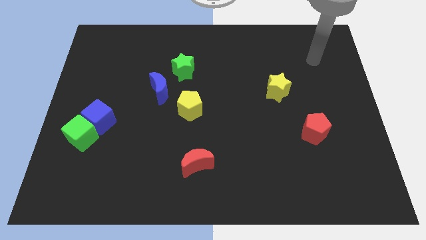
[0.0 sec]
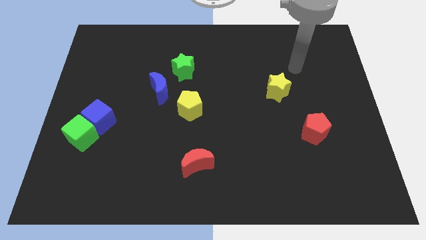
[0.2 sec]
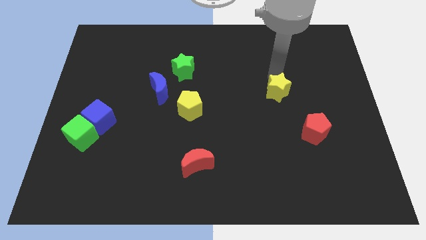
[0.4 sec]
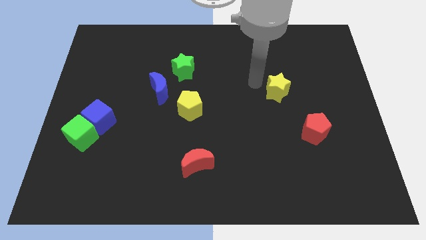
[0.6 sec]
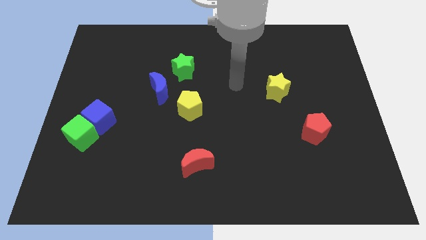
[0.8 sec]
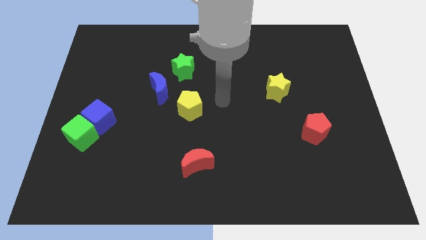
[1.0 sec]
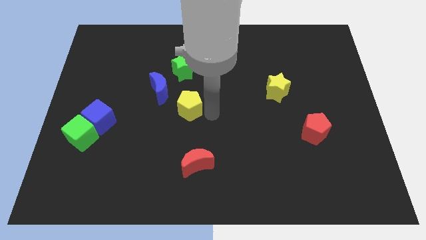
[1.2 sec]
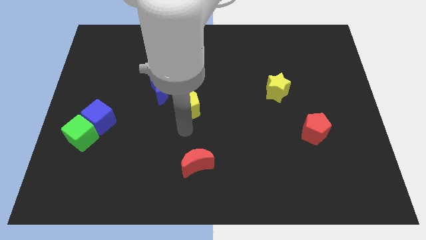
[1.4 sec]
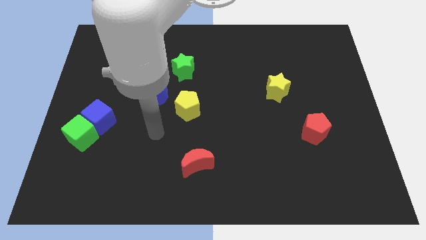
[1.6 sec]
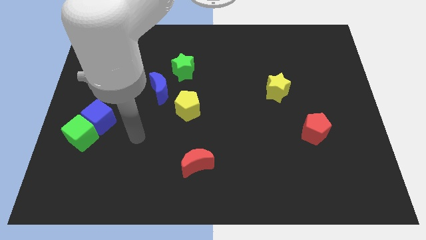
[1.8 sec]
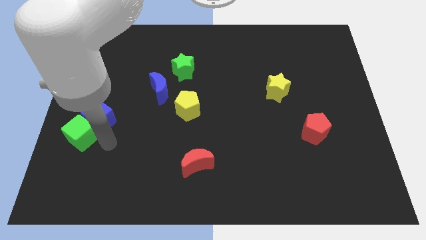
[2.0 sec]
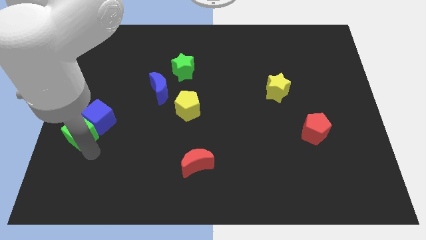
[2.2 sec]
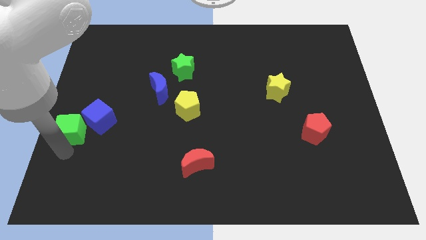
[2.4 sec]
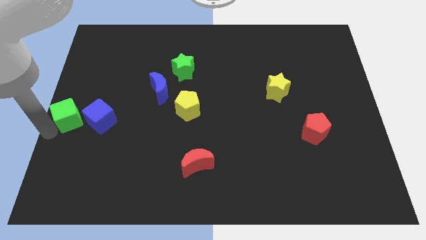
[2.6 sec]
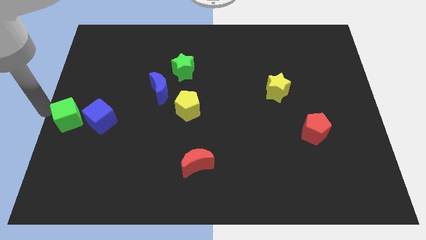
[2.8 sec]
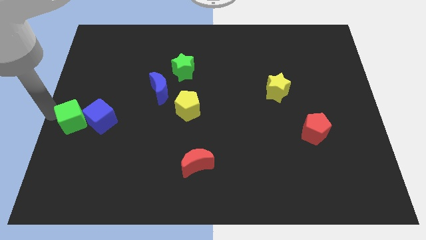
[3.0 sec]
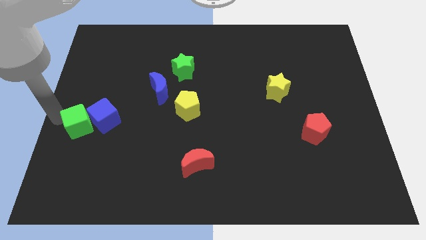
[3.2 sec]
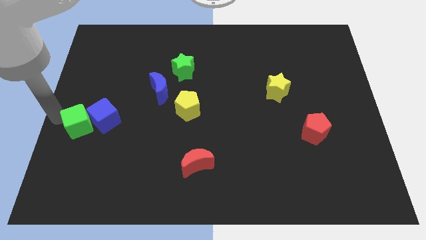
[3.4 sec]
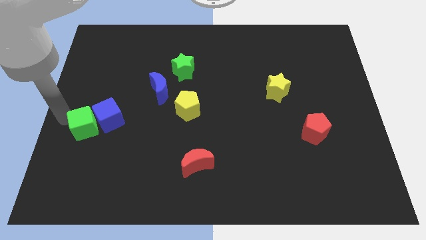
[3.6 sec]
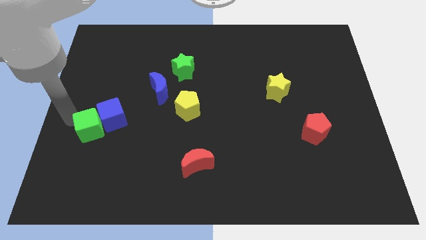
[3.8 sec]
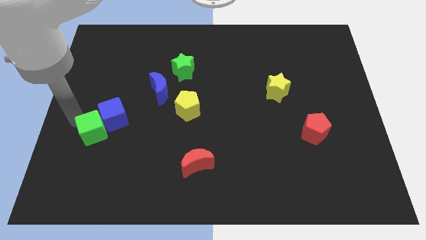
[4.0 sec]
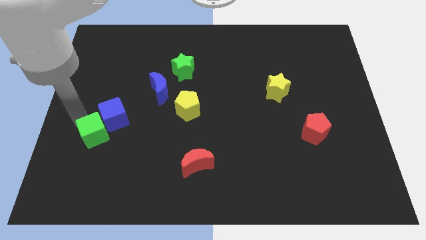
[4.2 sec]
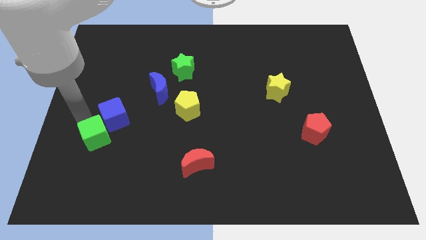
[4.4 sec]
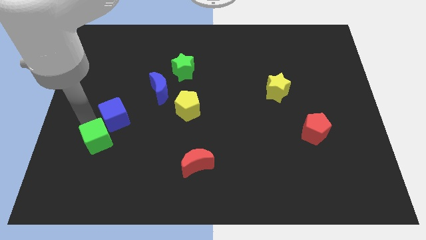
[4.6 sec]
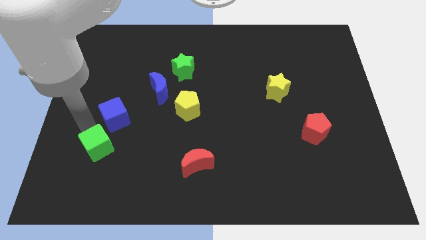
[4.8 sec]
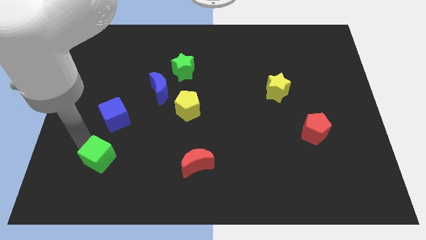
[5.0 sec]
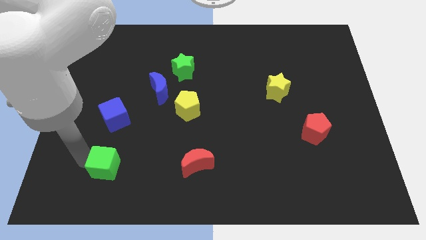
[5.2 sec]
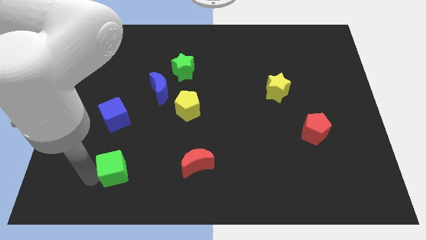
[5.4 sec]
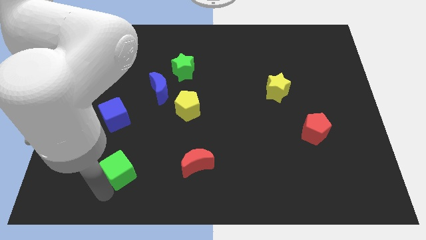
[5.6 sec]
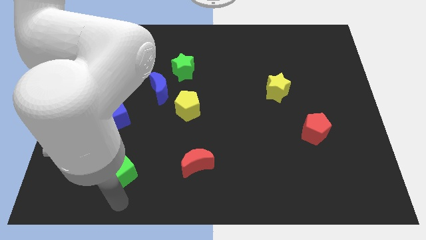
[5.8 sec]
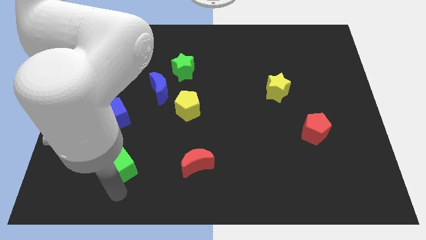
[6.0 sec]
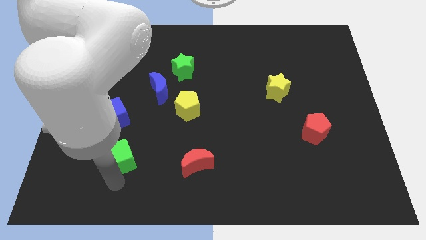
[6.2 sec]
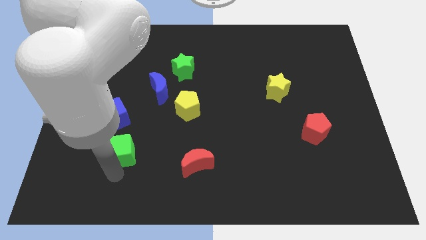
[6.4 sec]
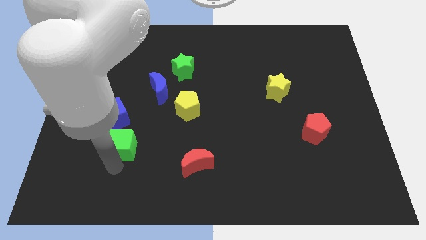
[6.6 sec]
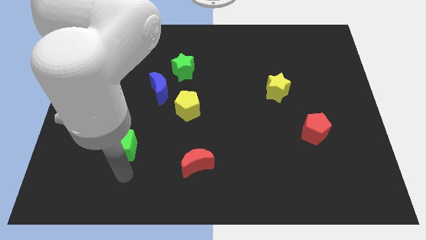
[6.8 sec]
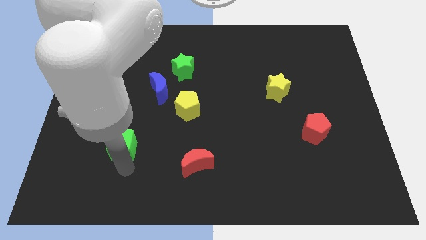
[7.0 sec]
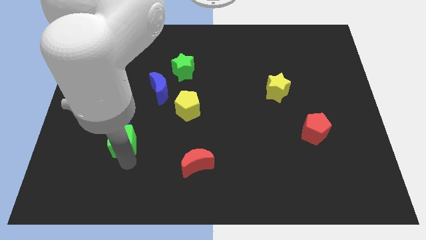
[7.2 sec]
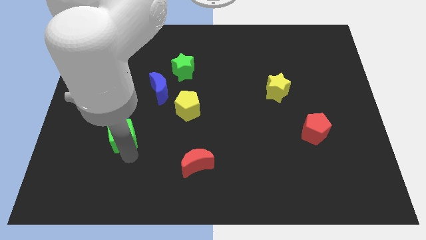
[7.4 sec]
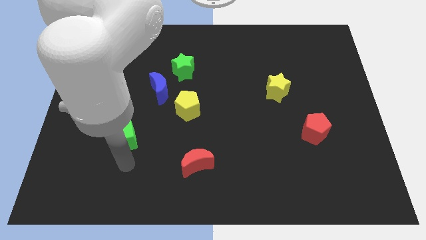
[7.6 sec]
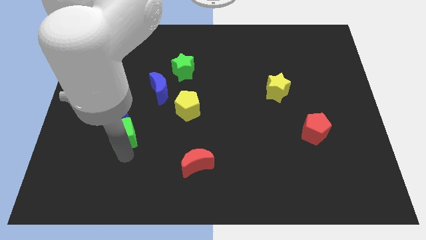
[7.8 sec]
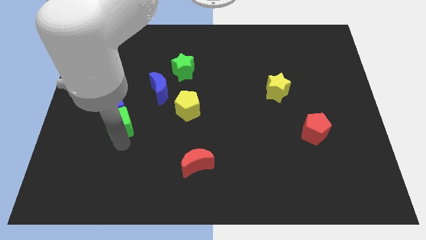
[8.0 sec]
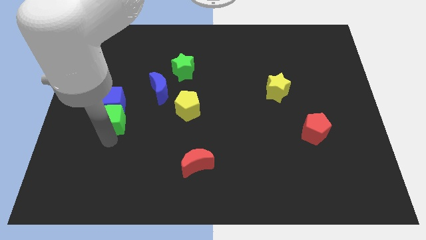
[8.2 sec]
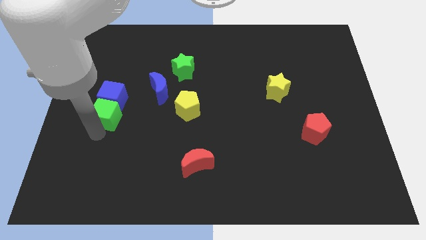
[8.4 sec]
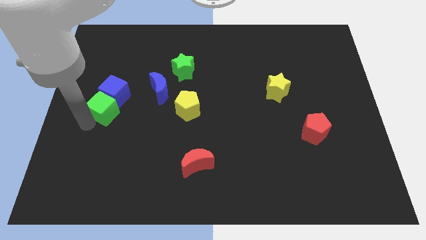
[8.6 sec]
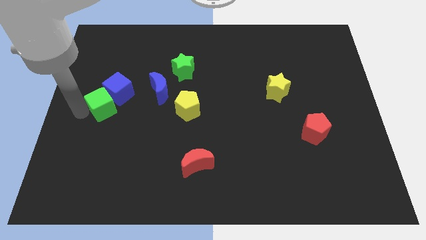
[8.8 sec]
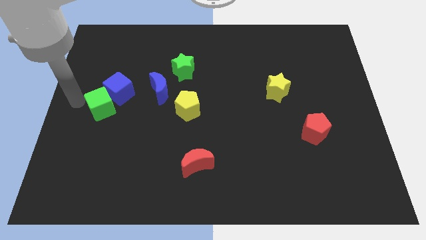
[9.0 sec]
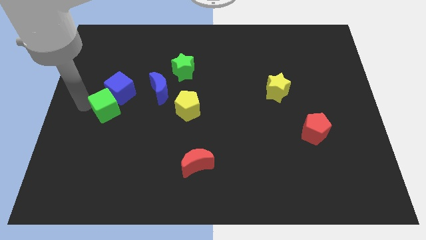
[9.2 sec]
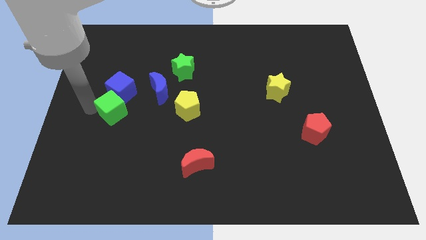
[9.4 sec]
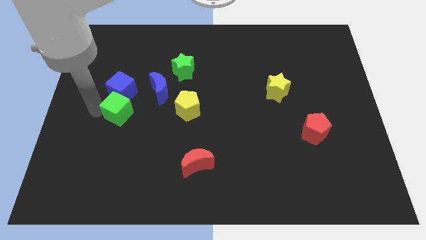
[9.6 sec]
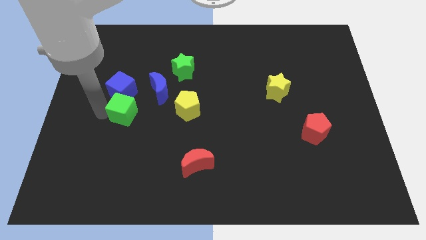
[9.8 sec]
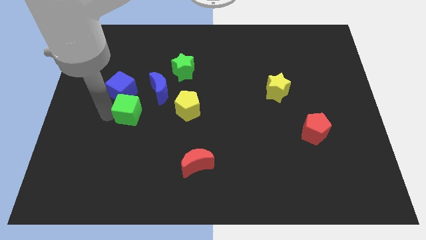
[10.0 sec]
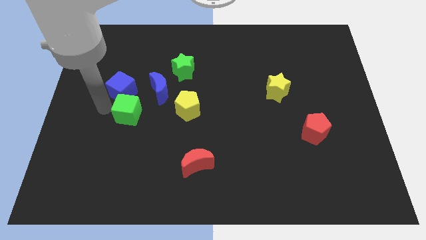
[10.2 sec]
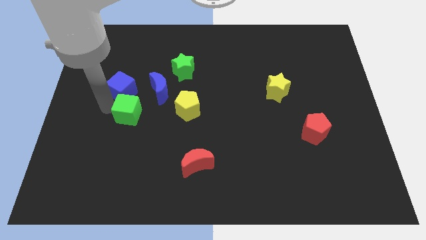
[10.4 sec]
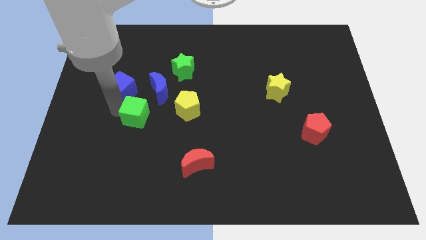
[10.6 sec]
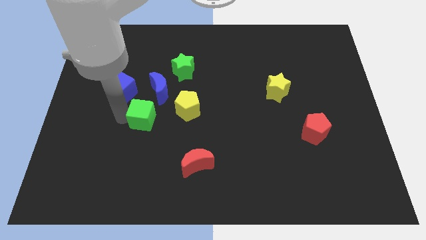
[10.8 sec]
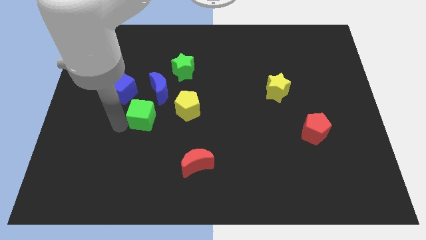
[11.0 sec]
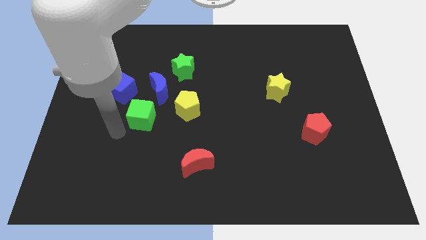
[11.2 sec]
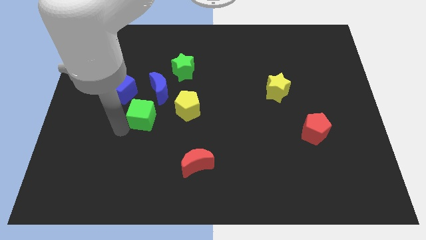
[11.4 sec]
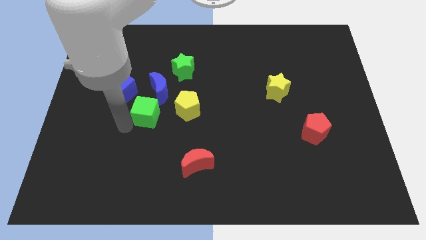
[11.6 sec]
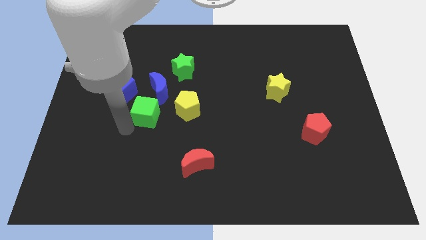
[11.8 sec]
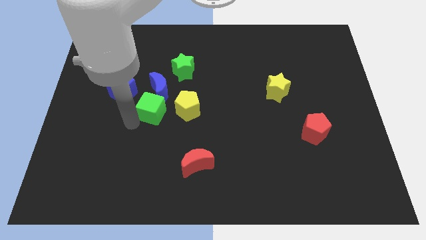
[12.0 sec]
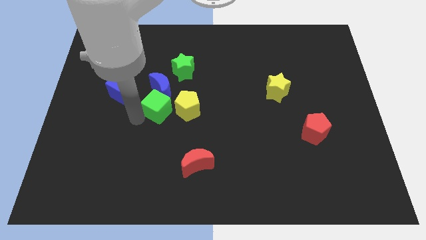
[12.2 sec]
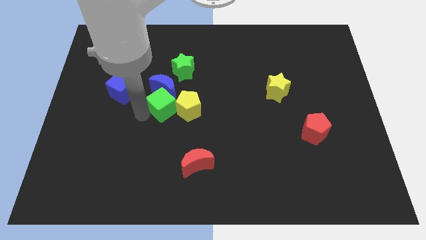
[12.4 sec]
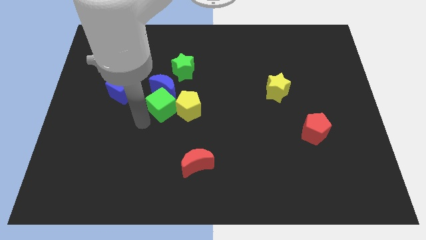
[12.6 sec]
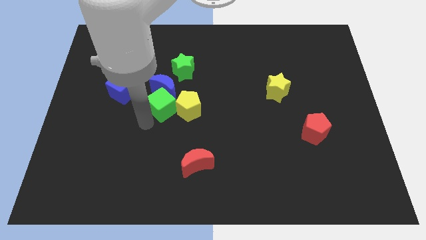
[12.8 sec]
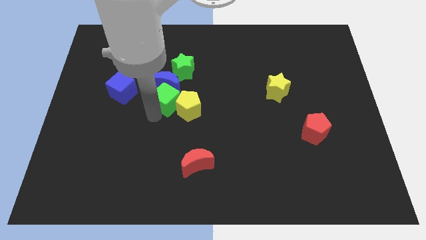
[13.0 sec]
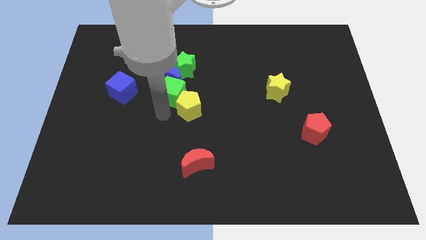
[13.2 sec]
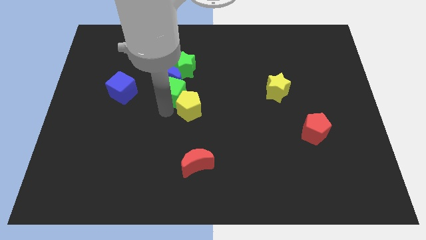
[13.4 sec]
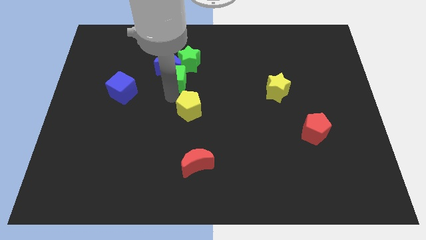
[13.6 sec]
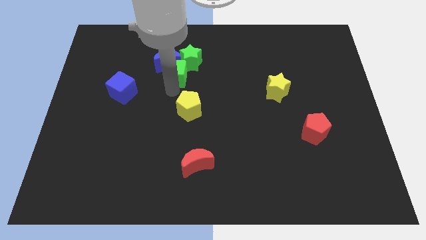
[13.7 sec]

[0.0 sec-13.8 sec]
push the green cube to the green star
